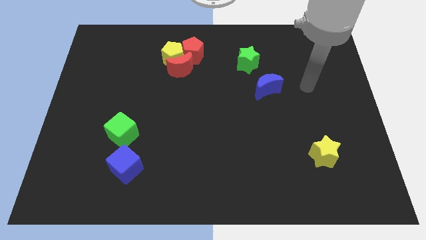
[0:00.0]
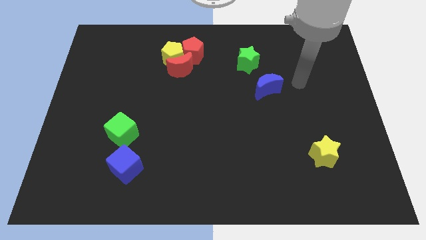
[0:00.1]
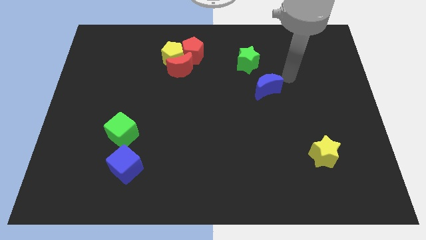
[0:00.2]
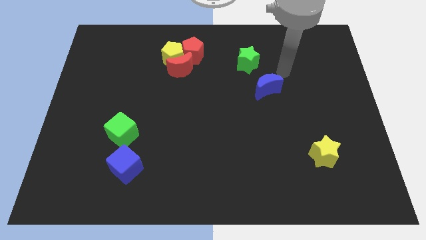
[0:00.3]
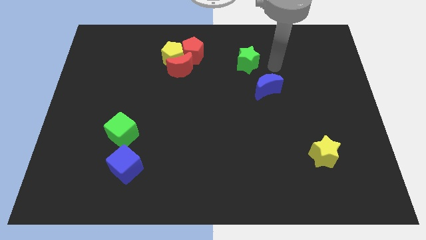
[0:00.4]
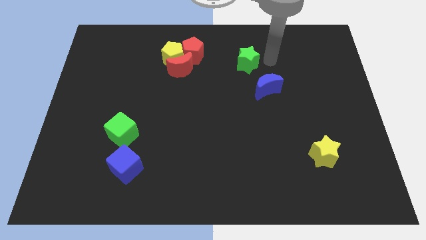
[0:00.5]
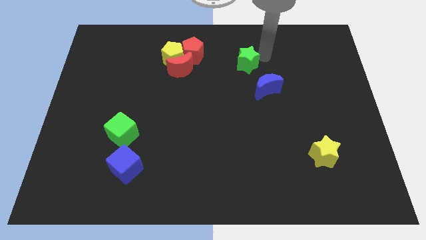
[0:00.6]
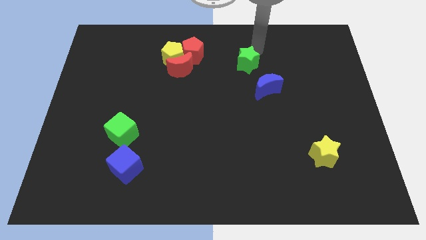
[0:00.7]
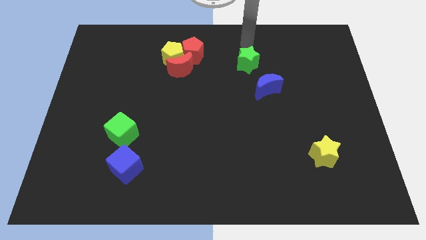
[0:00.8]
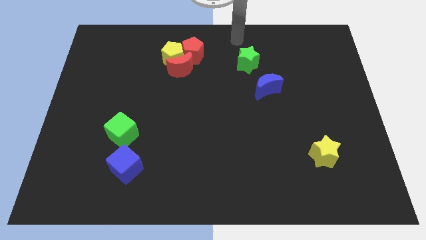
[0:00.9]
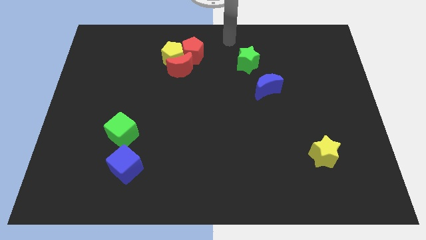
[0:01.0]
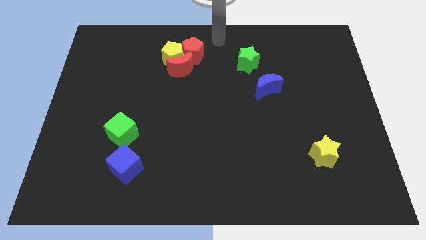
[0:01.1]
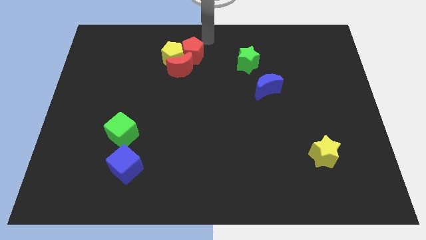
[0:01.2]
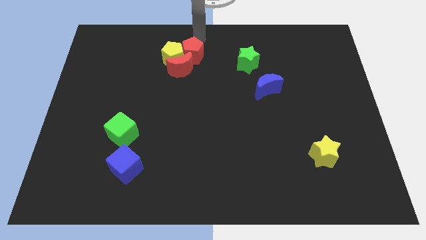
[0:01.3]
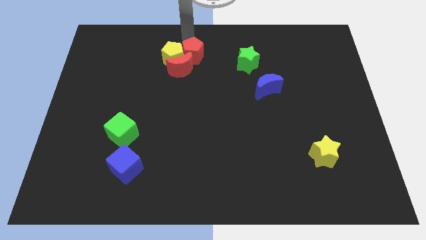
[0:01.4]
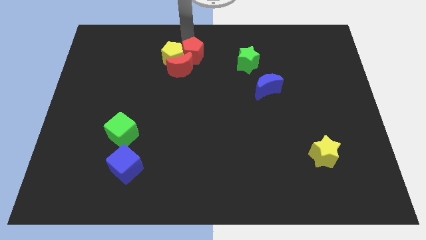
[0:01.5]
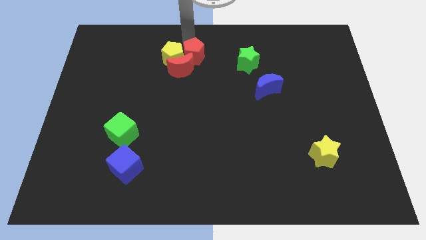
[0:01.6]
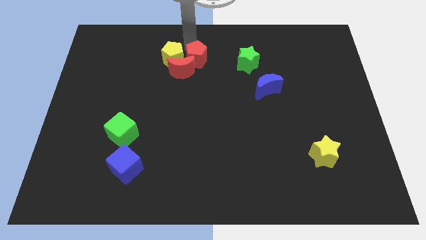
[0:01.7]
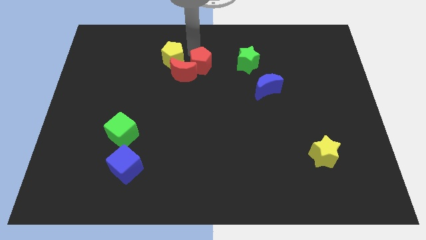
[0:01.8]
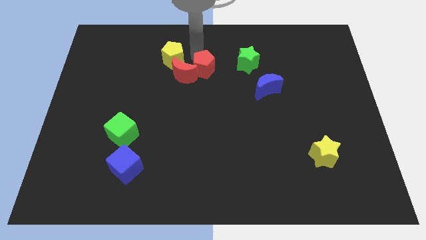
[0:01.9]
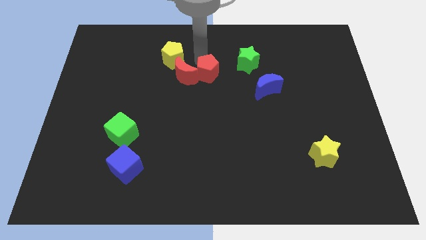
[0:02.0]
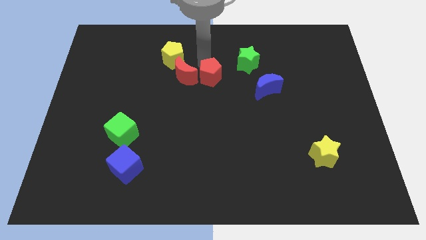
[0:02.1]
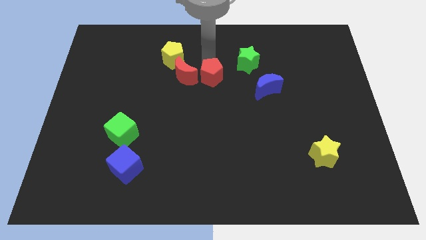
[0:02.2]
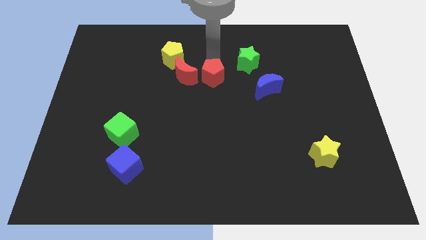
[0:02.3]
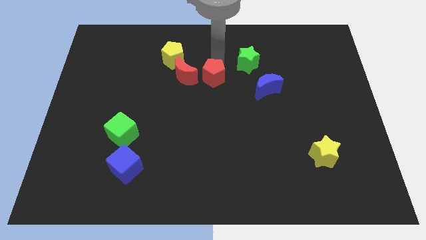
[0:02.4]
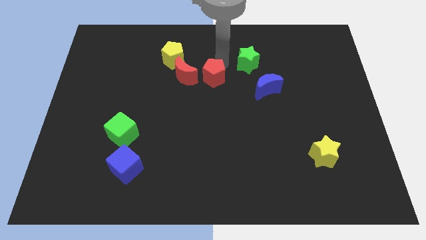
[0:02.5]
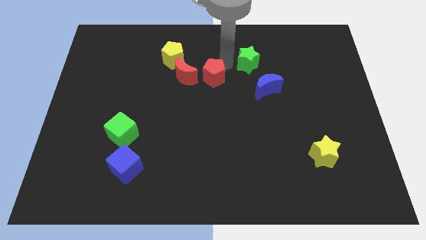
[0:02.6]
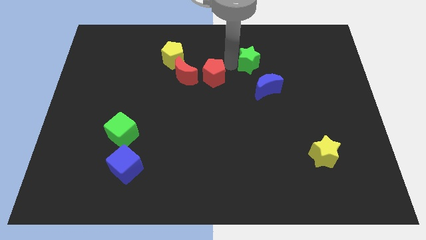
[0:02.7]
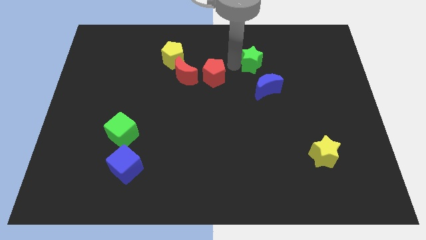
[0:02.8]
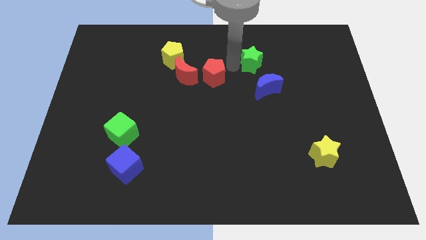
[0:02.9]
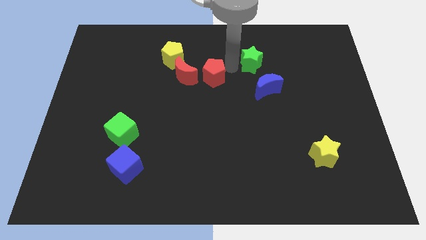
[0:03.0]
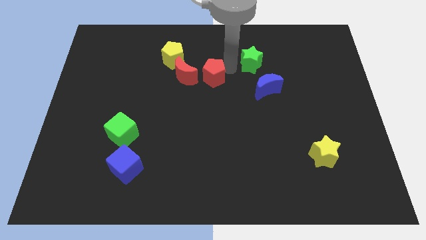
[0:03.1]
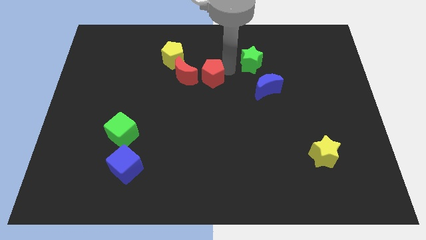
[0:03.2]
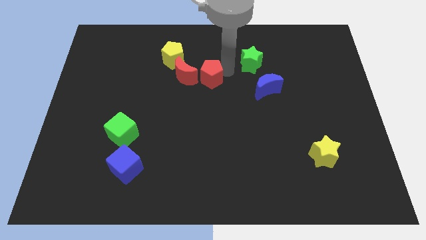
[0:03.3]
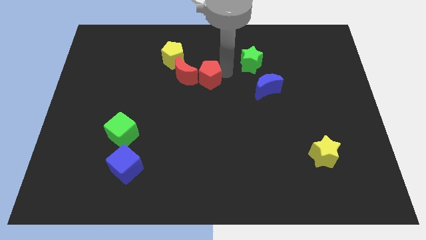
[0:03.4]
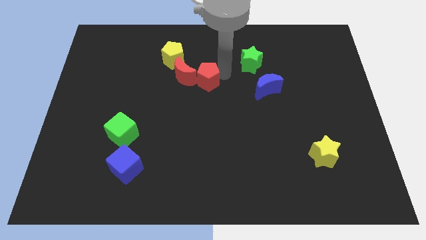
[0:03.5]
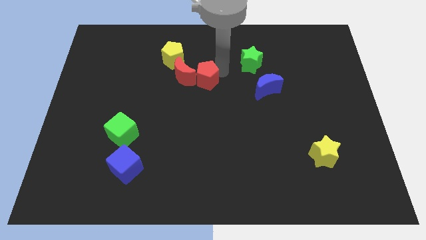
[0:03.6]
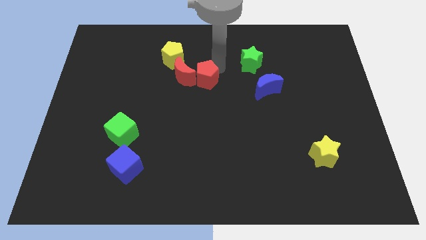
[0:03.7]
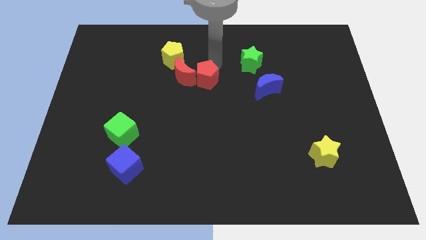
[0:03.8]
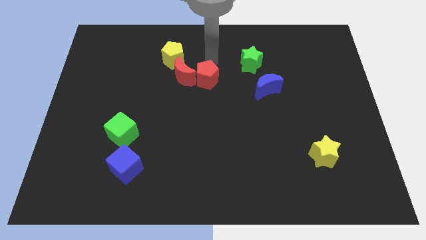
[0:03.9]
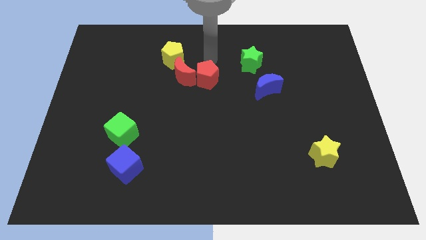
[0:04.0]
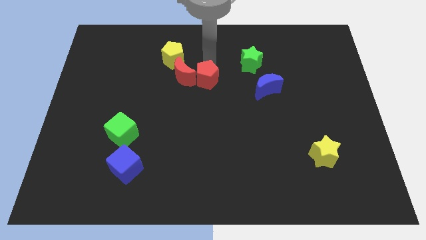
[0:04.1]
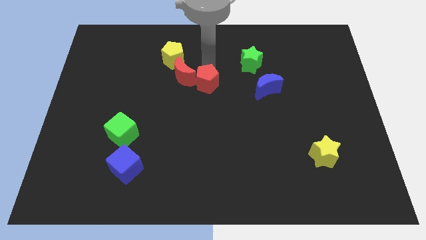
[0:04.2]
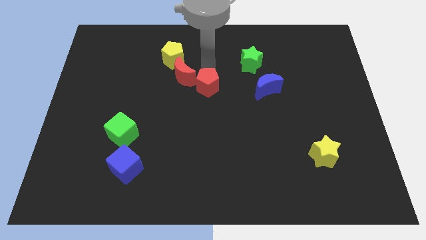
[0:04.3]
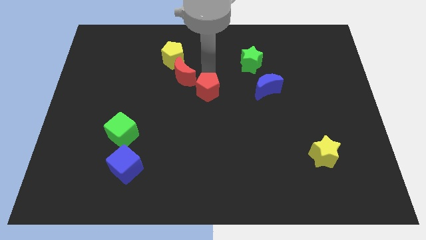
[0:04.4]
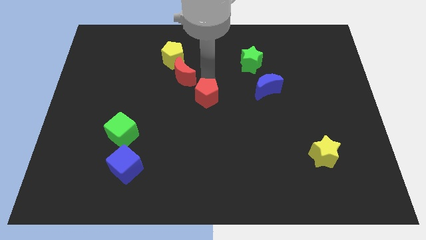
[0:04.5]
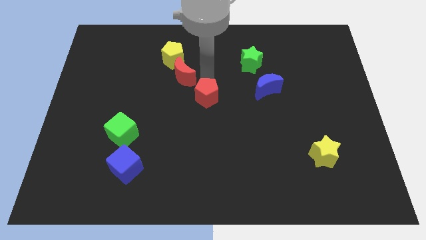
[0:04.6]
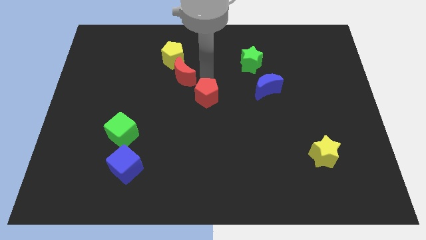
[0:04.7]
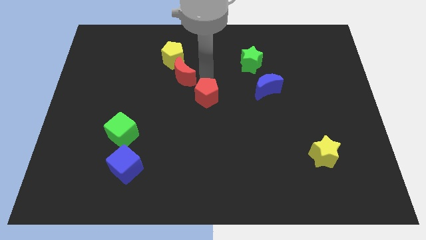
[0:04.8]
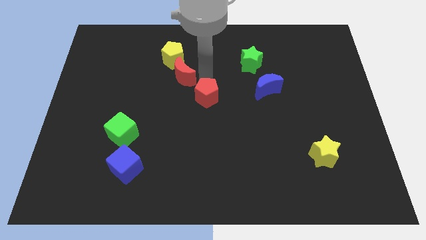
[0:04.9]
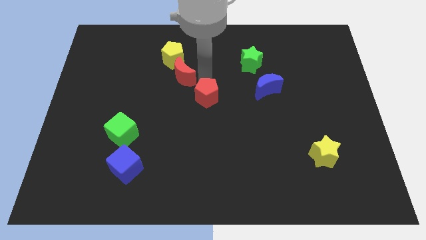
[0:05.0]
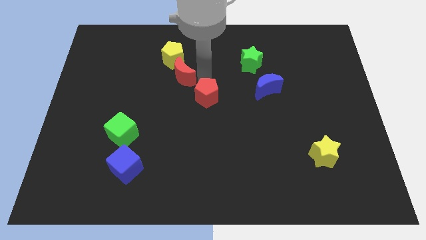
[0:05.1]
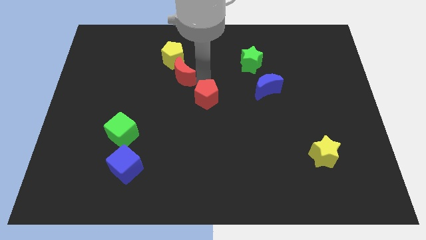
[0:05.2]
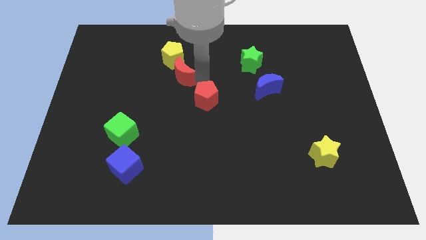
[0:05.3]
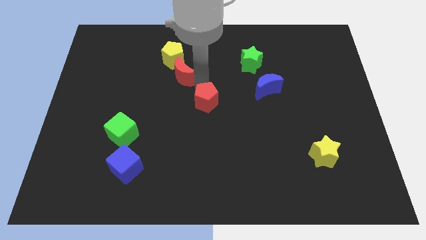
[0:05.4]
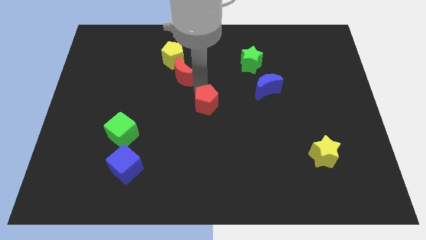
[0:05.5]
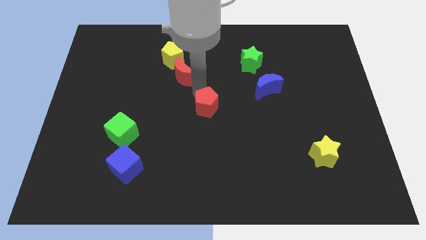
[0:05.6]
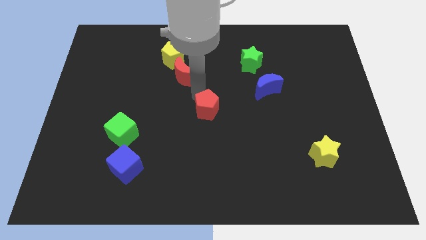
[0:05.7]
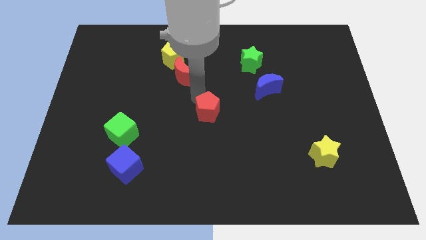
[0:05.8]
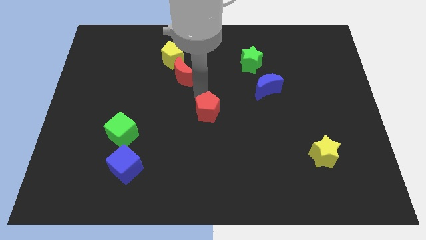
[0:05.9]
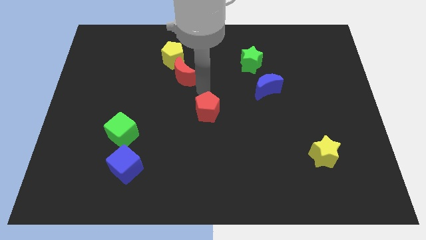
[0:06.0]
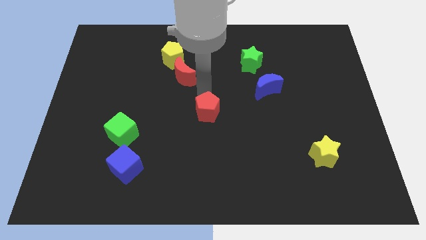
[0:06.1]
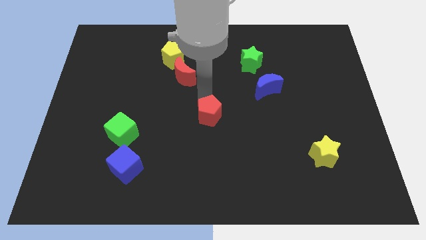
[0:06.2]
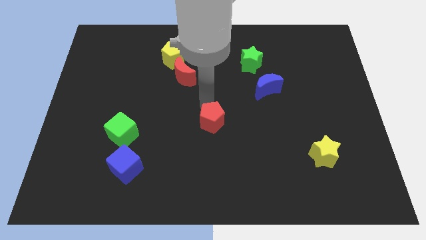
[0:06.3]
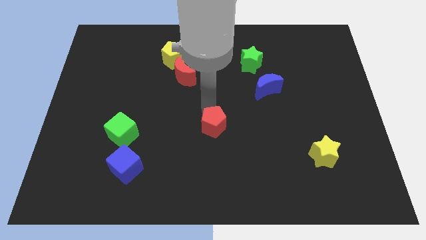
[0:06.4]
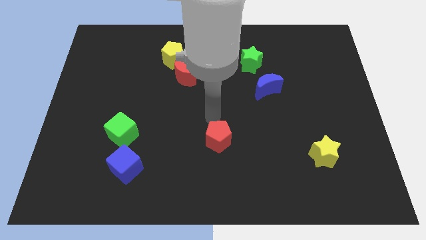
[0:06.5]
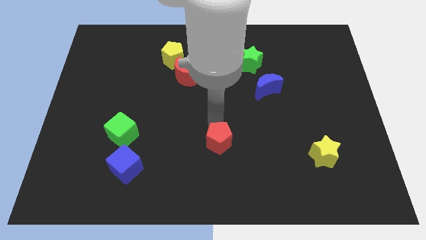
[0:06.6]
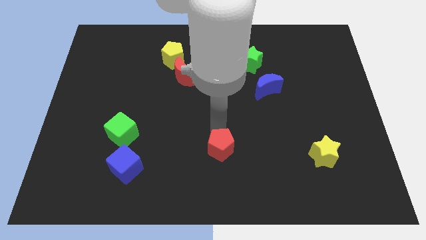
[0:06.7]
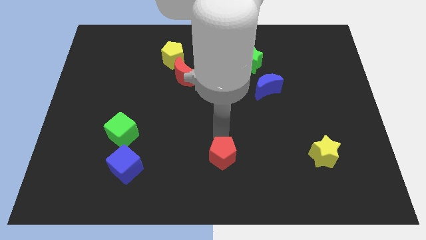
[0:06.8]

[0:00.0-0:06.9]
move the red pentagon to the bottom side
